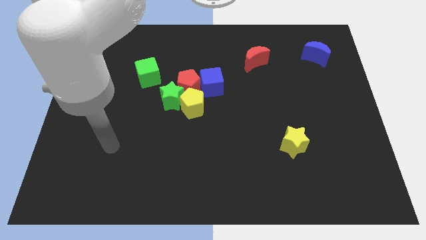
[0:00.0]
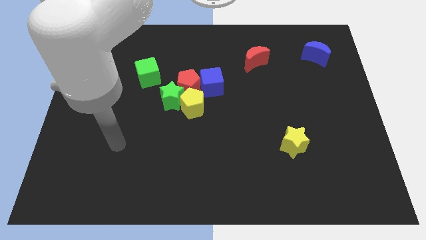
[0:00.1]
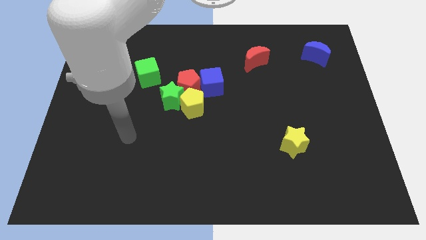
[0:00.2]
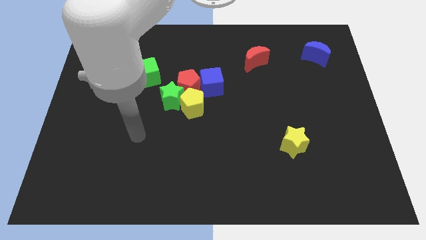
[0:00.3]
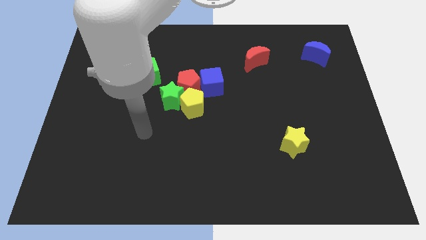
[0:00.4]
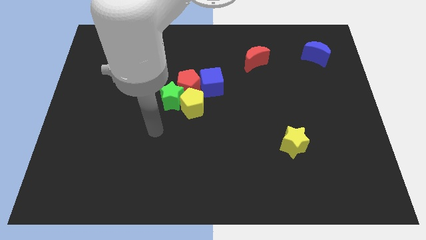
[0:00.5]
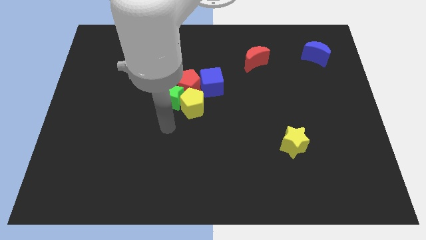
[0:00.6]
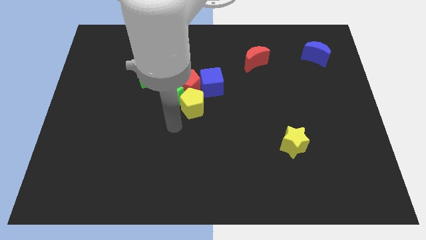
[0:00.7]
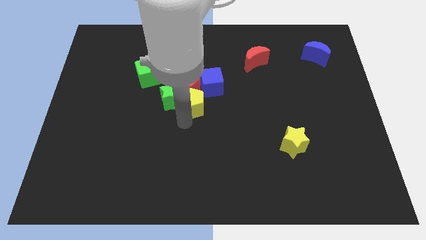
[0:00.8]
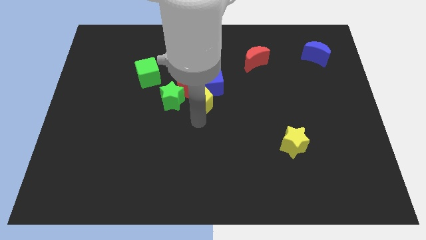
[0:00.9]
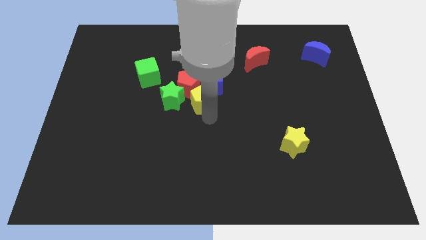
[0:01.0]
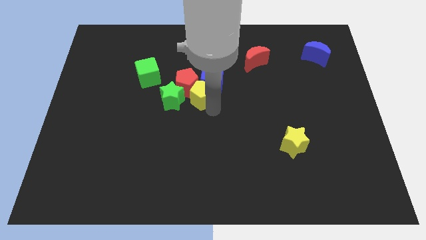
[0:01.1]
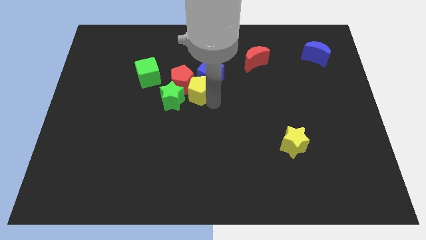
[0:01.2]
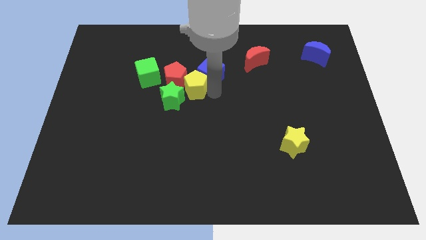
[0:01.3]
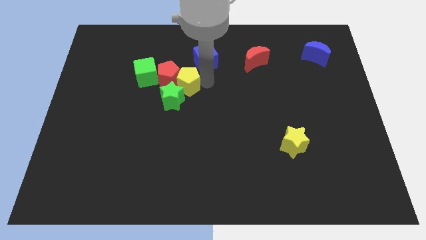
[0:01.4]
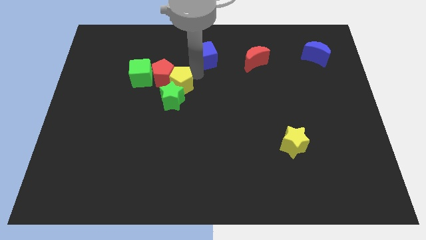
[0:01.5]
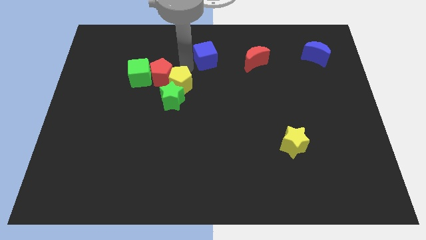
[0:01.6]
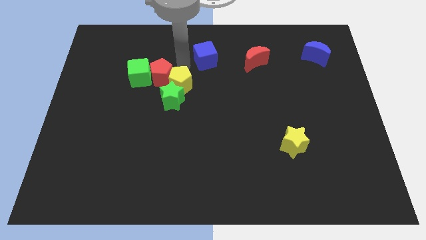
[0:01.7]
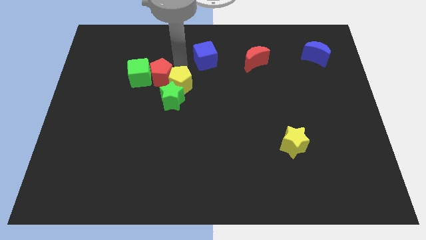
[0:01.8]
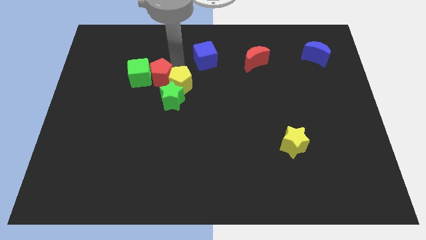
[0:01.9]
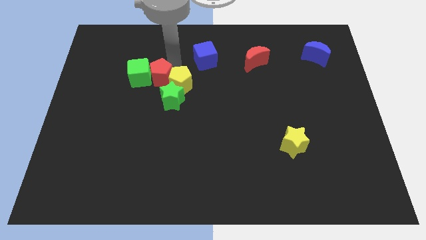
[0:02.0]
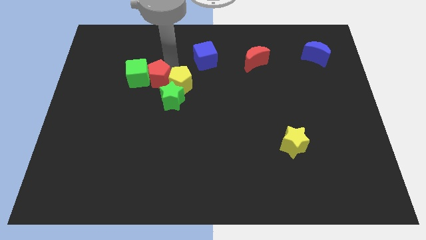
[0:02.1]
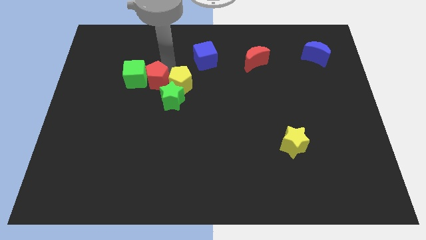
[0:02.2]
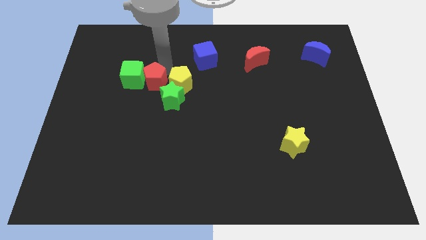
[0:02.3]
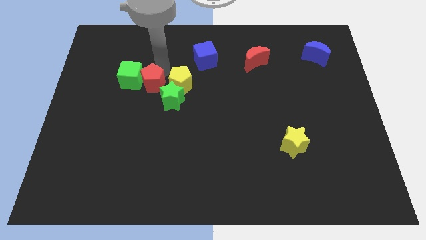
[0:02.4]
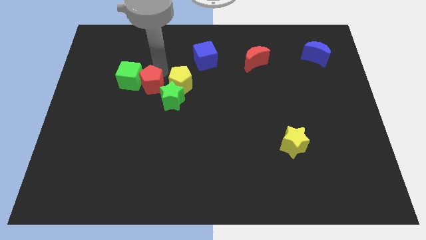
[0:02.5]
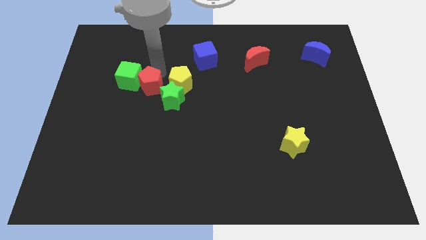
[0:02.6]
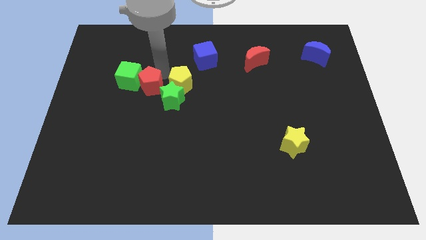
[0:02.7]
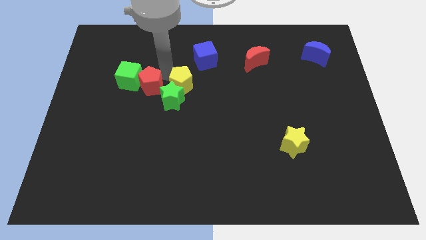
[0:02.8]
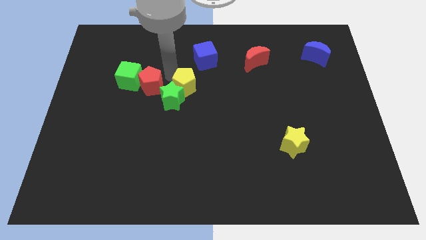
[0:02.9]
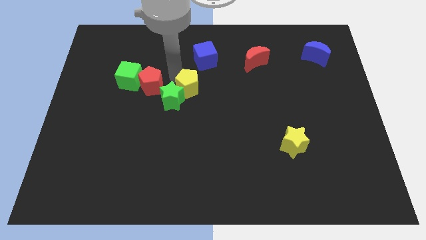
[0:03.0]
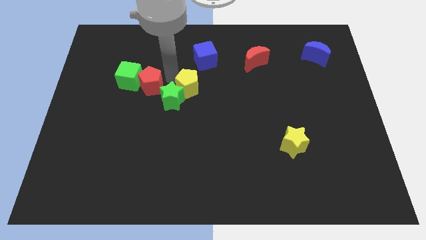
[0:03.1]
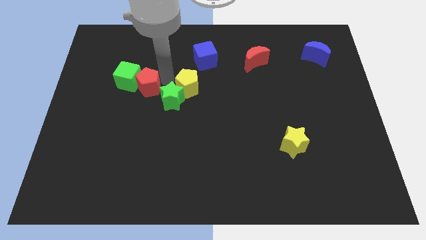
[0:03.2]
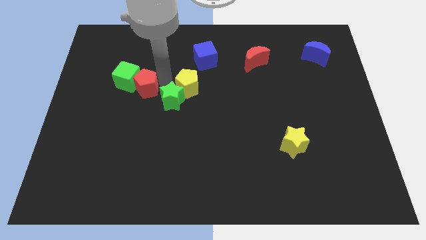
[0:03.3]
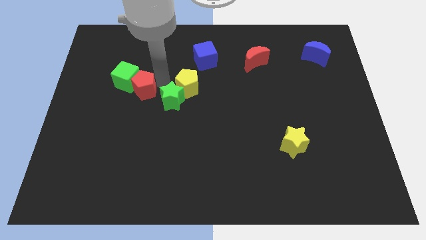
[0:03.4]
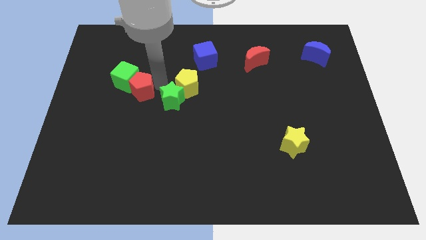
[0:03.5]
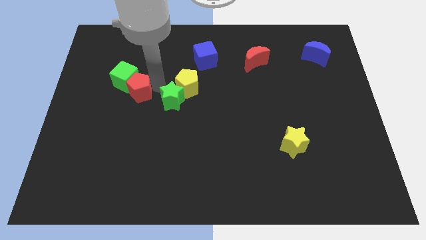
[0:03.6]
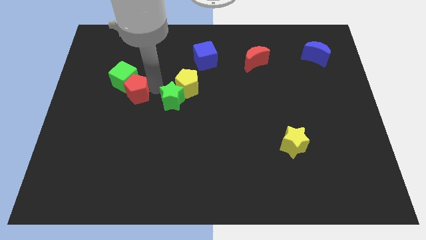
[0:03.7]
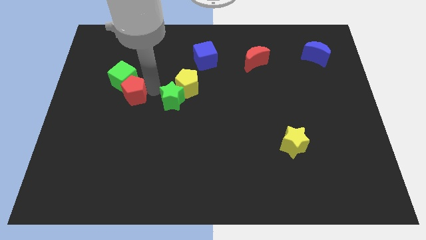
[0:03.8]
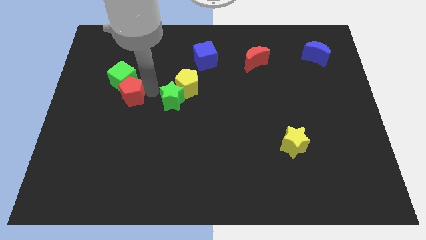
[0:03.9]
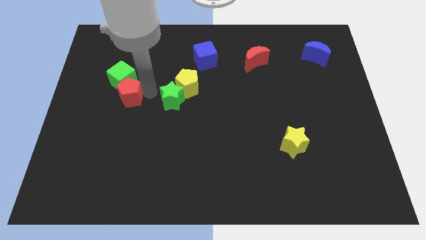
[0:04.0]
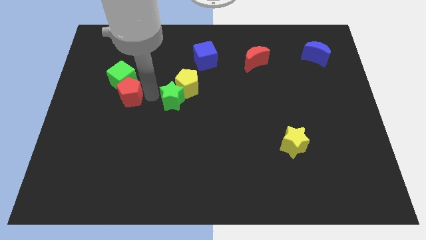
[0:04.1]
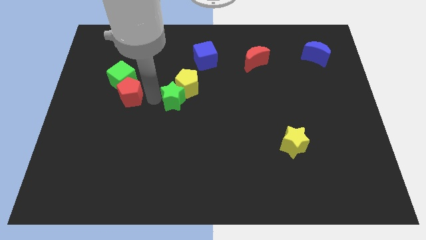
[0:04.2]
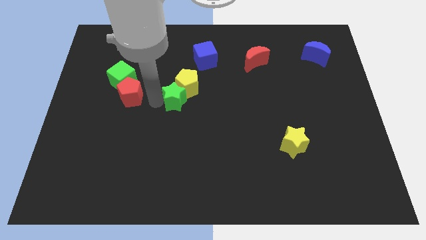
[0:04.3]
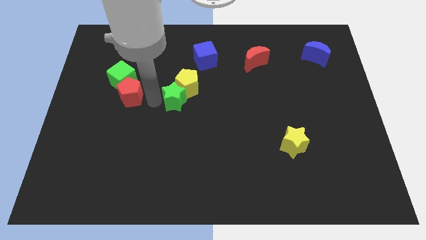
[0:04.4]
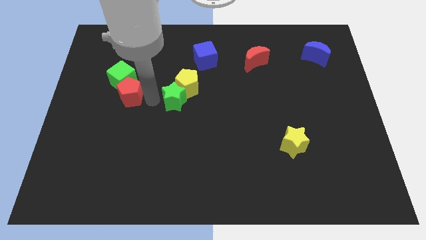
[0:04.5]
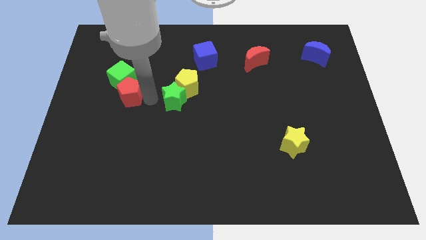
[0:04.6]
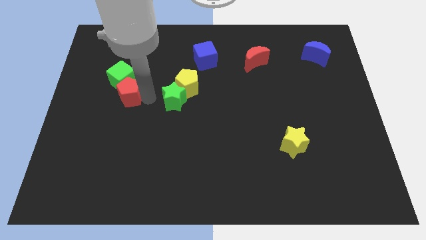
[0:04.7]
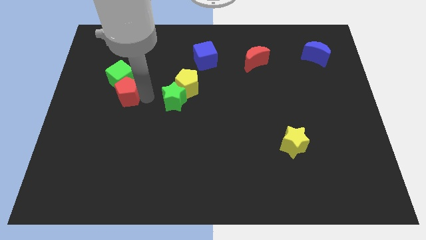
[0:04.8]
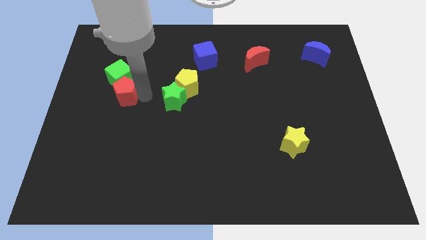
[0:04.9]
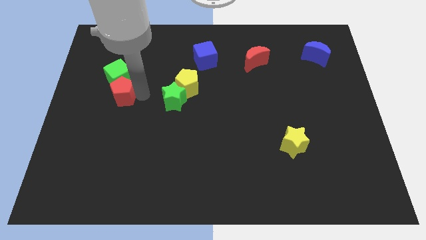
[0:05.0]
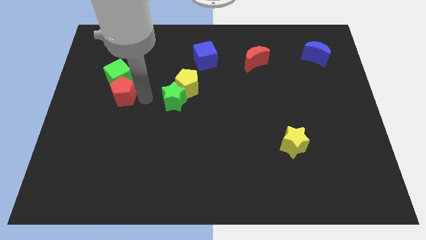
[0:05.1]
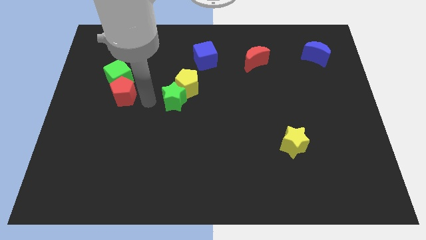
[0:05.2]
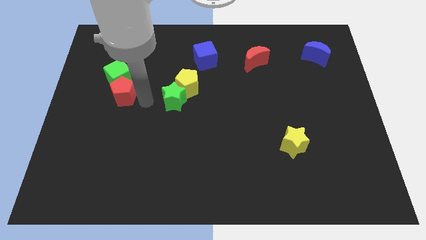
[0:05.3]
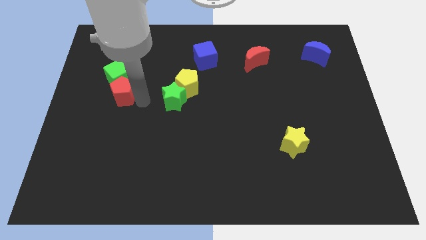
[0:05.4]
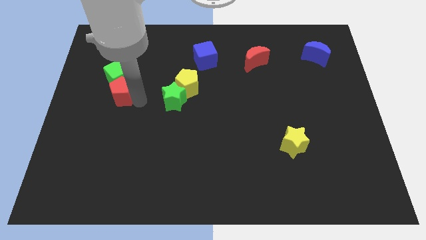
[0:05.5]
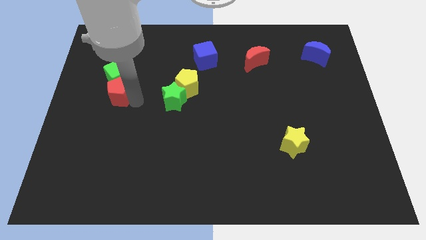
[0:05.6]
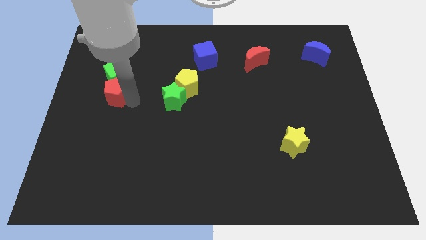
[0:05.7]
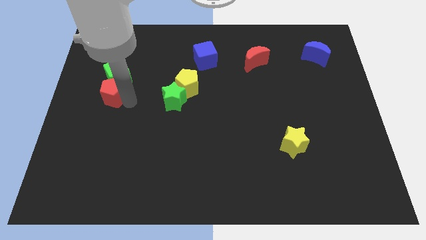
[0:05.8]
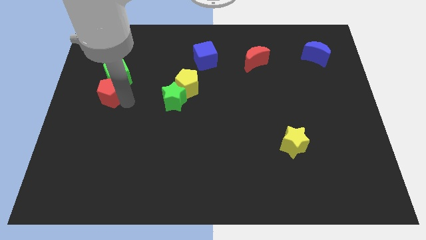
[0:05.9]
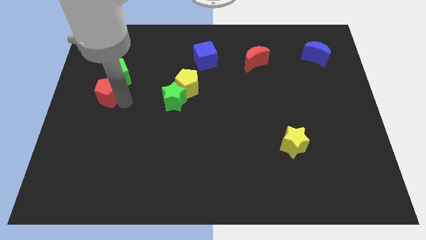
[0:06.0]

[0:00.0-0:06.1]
slide the red pentagon to the center left

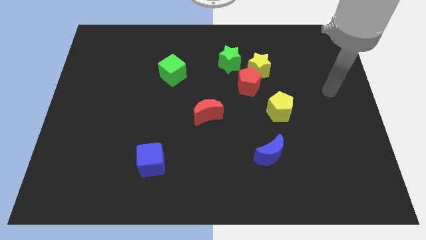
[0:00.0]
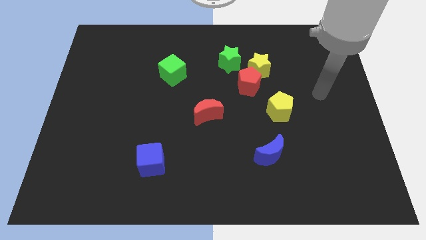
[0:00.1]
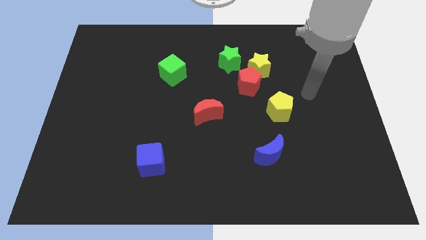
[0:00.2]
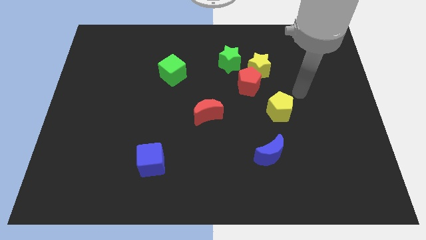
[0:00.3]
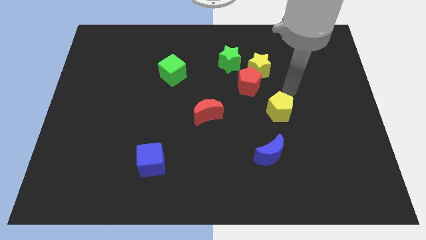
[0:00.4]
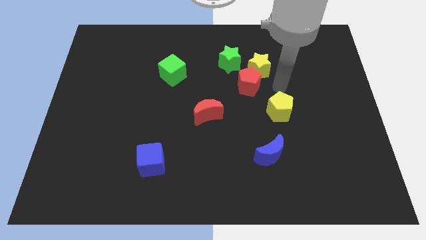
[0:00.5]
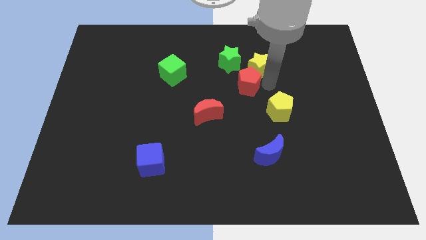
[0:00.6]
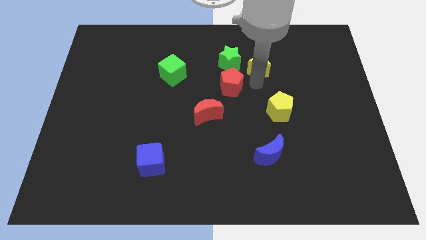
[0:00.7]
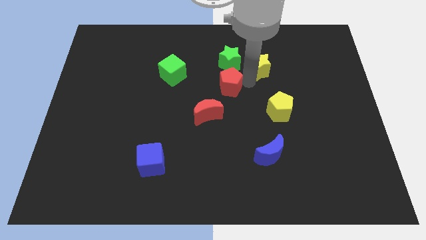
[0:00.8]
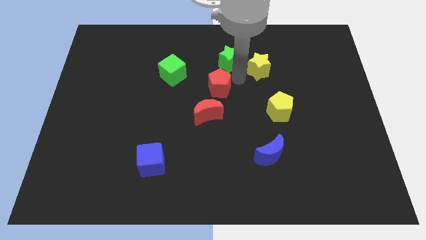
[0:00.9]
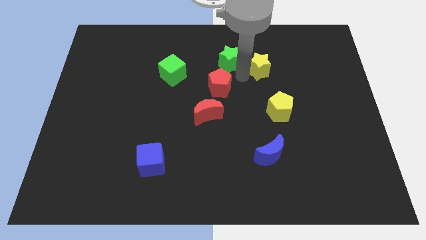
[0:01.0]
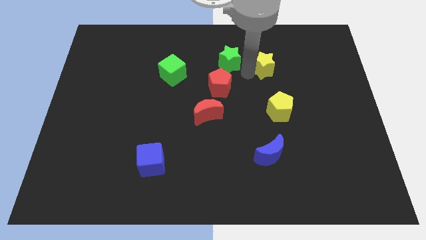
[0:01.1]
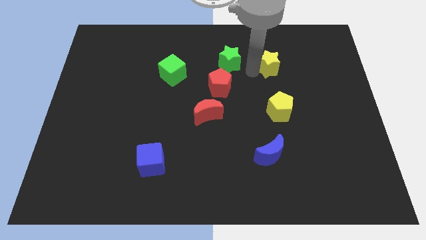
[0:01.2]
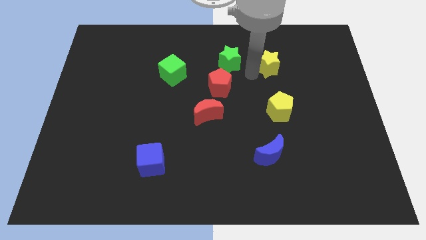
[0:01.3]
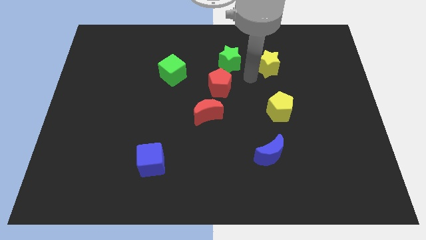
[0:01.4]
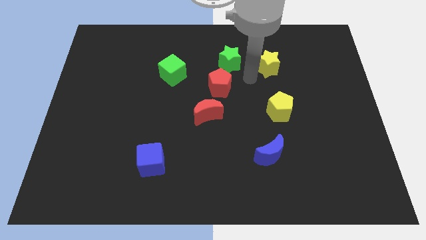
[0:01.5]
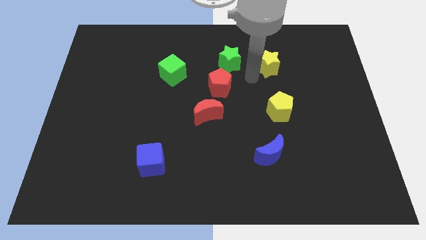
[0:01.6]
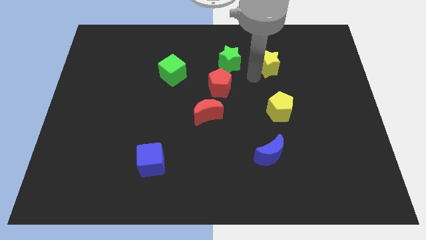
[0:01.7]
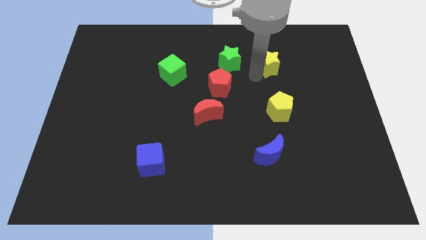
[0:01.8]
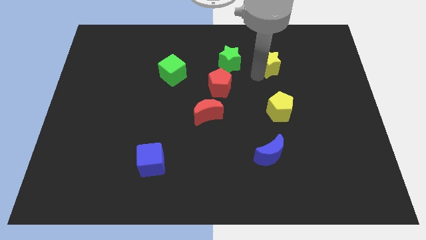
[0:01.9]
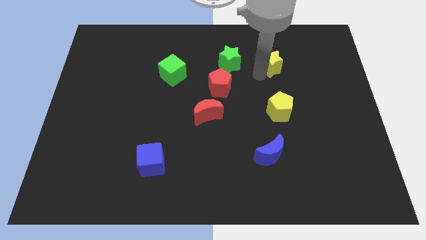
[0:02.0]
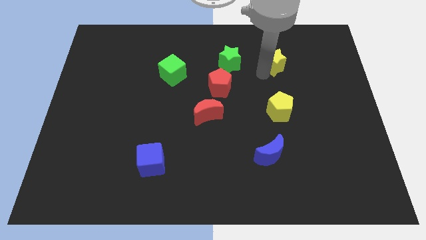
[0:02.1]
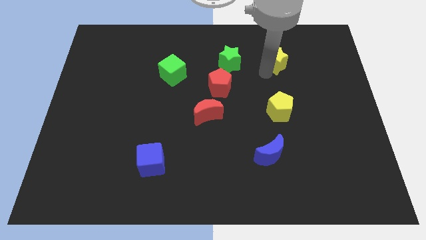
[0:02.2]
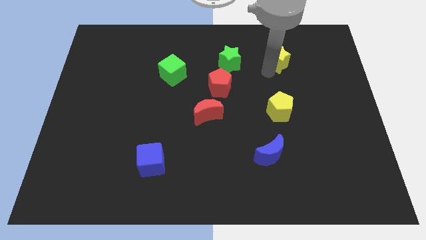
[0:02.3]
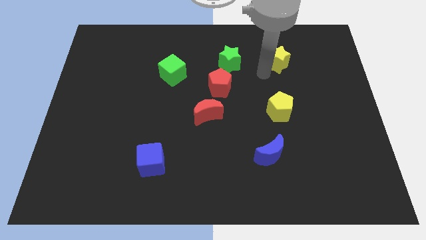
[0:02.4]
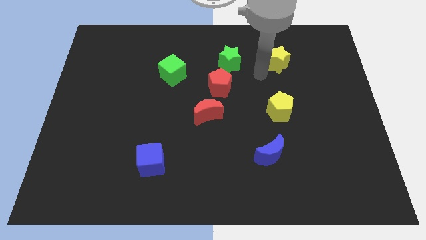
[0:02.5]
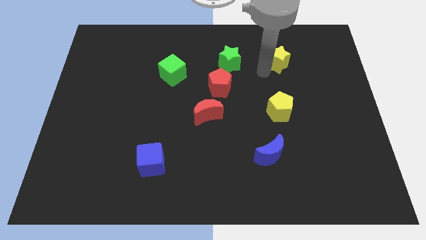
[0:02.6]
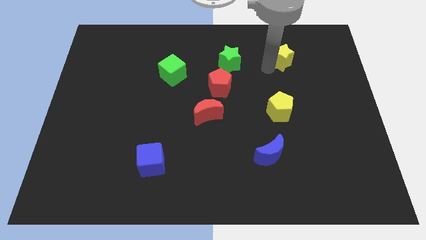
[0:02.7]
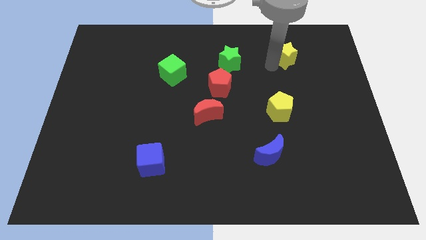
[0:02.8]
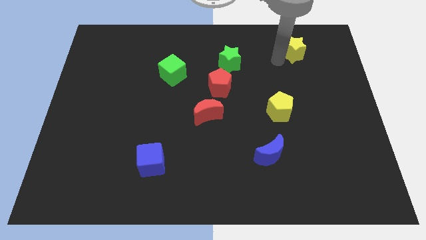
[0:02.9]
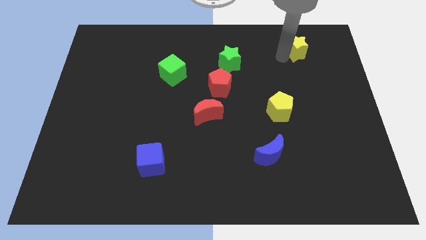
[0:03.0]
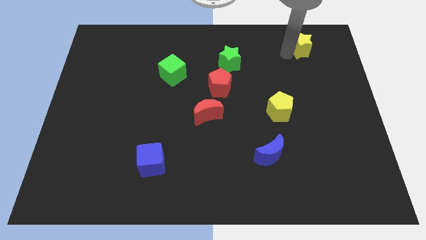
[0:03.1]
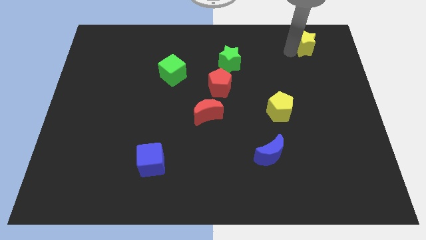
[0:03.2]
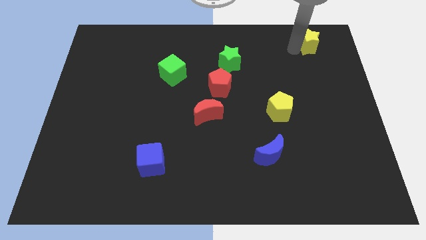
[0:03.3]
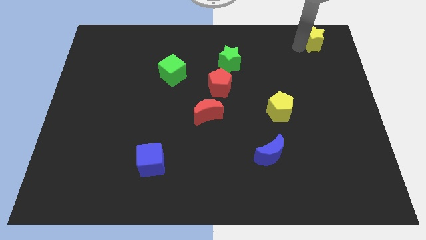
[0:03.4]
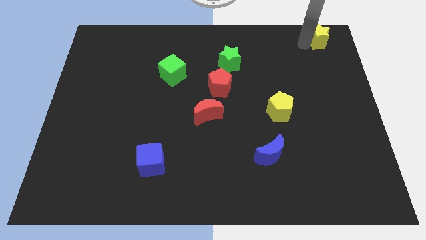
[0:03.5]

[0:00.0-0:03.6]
slide the yellow star to the top right of the board
